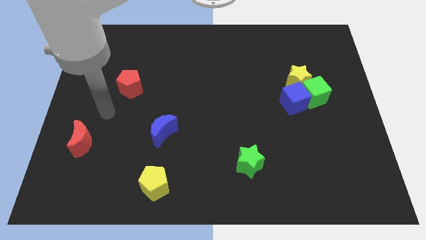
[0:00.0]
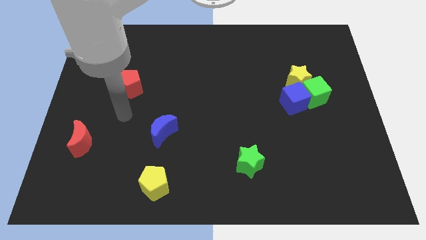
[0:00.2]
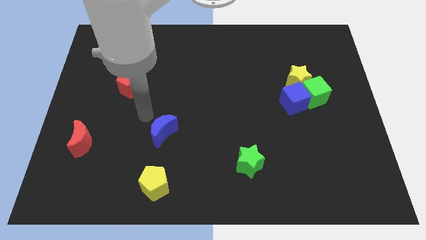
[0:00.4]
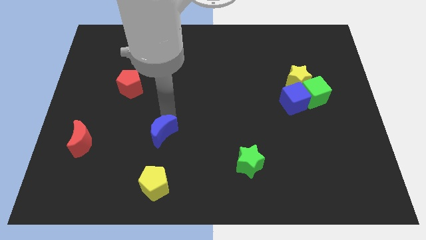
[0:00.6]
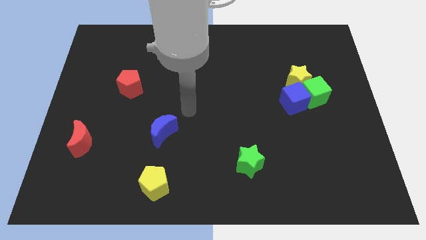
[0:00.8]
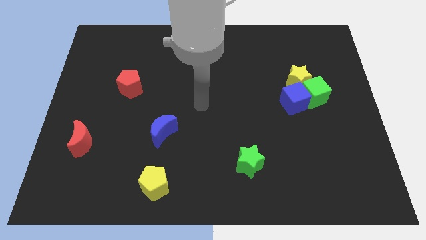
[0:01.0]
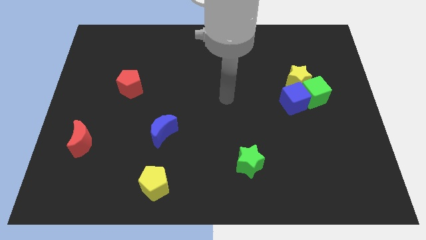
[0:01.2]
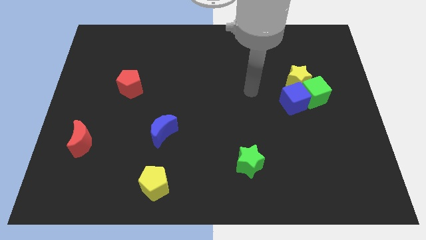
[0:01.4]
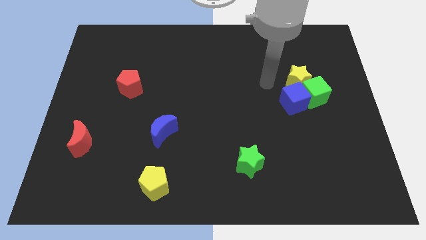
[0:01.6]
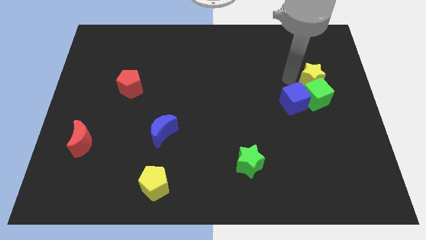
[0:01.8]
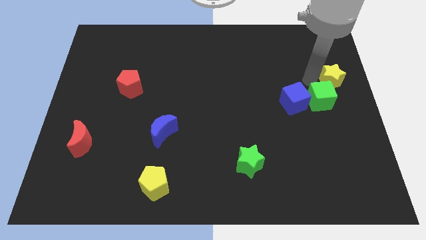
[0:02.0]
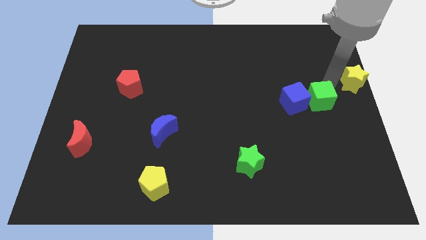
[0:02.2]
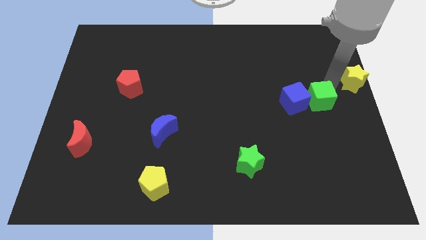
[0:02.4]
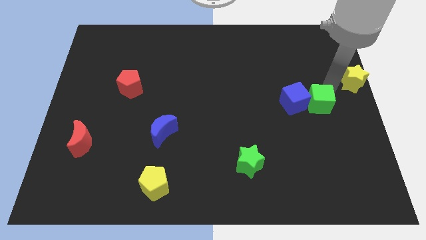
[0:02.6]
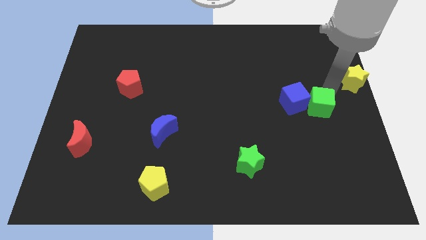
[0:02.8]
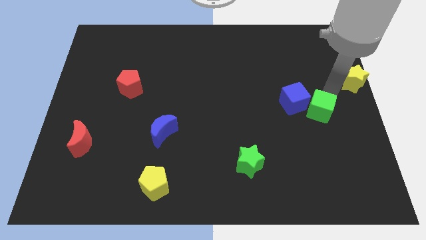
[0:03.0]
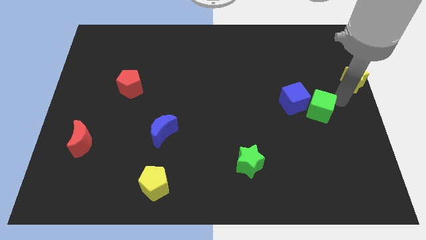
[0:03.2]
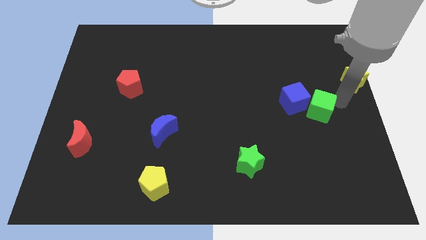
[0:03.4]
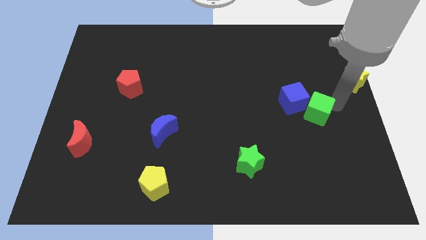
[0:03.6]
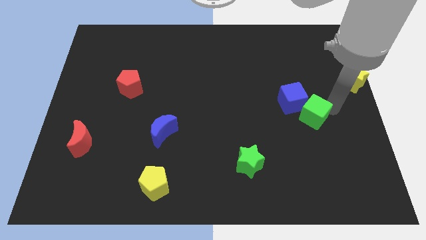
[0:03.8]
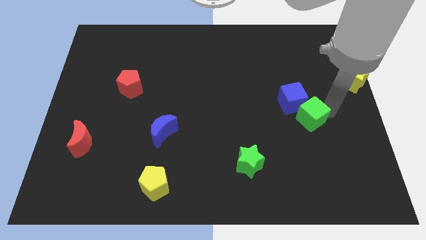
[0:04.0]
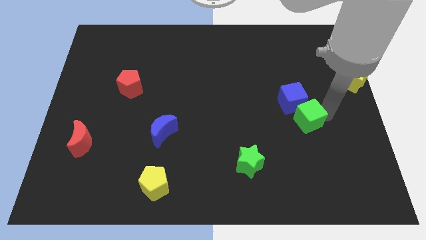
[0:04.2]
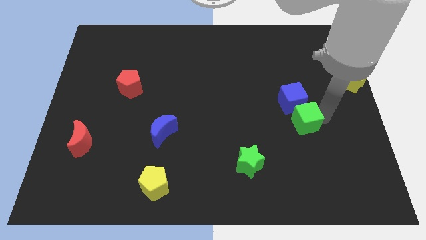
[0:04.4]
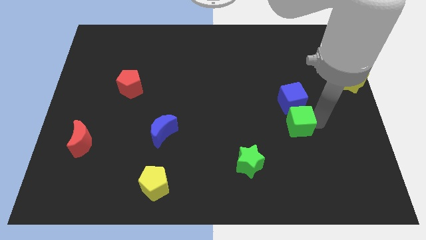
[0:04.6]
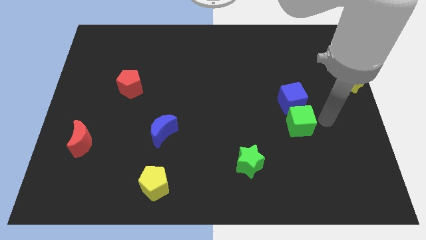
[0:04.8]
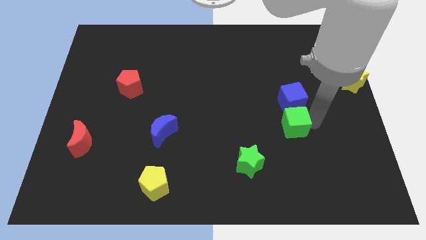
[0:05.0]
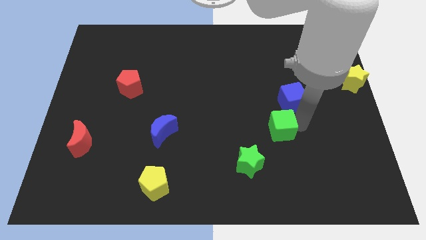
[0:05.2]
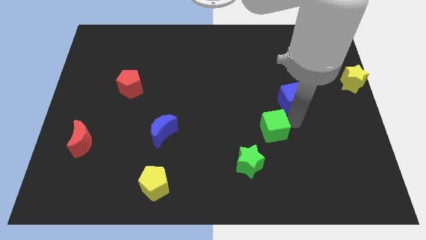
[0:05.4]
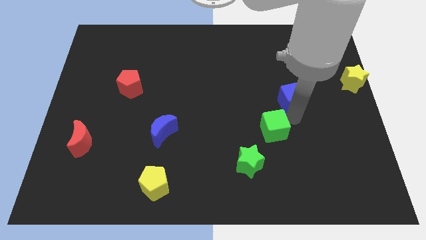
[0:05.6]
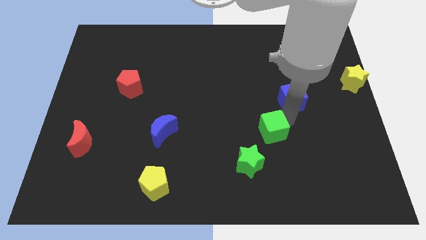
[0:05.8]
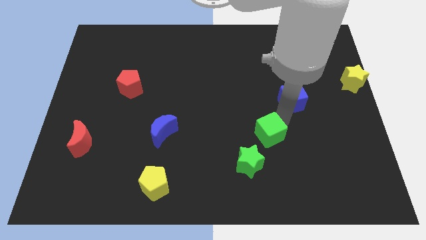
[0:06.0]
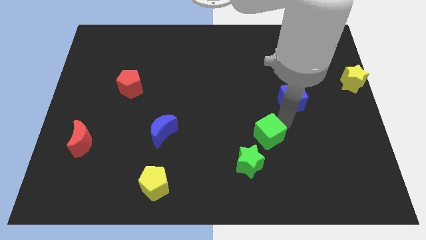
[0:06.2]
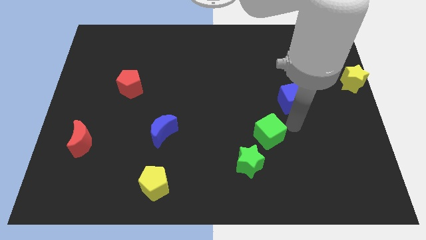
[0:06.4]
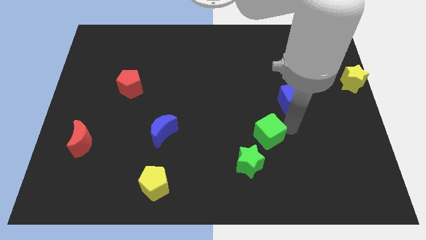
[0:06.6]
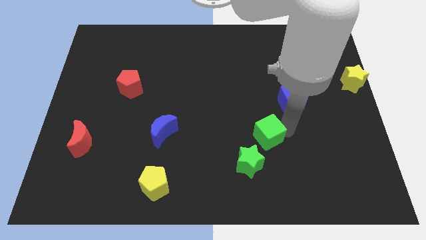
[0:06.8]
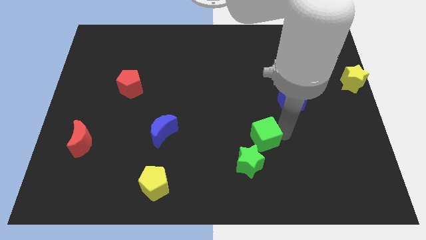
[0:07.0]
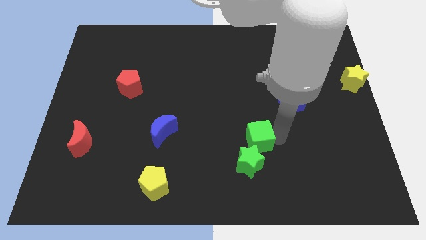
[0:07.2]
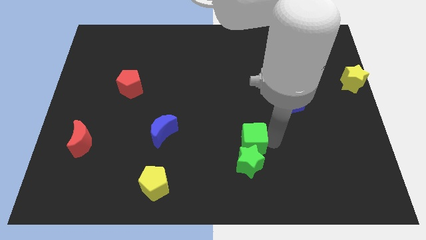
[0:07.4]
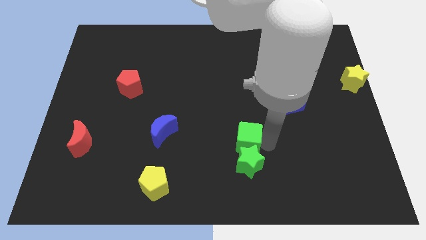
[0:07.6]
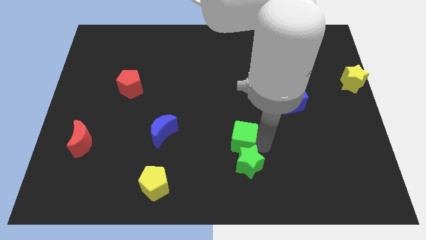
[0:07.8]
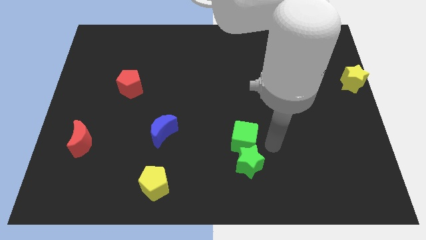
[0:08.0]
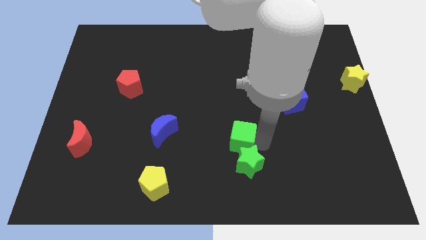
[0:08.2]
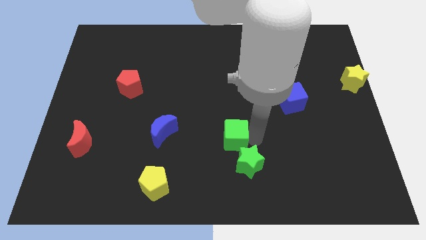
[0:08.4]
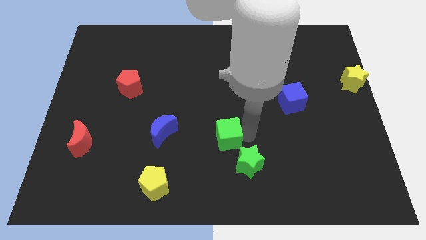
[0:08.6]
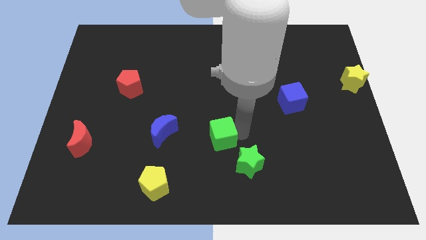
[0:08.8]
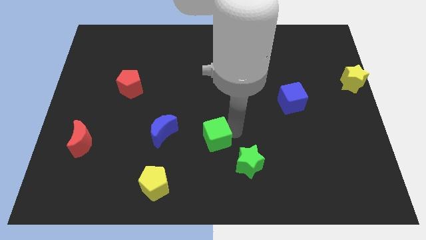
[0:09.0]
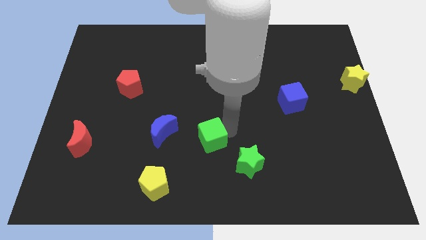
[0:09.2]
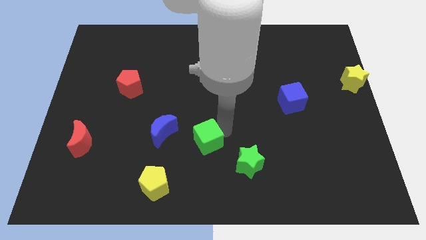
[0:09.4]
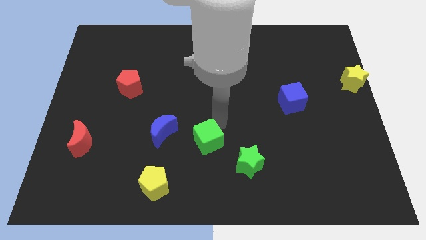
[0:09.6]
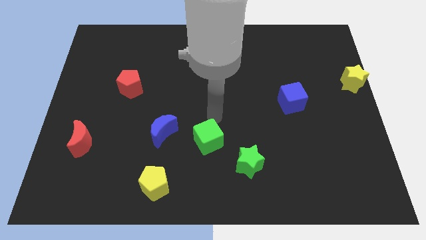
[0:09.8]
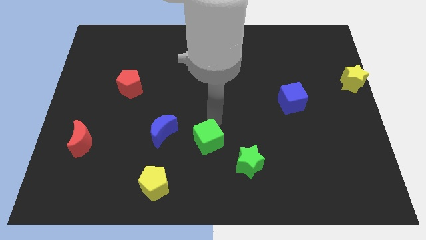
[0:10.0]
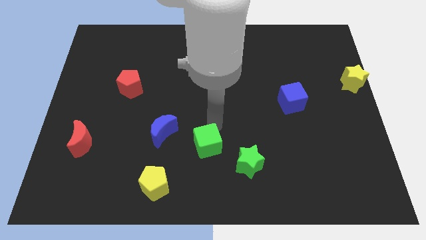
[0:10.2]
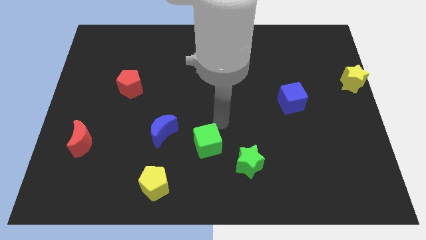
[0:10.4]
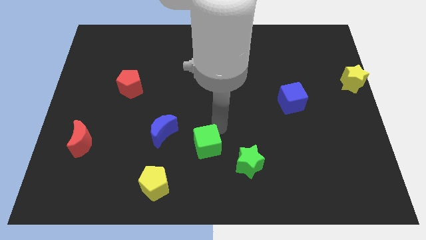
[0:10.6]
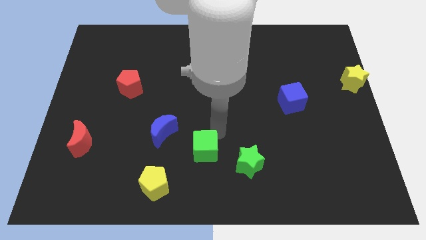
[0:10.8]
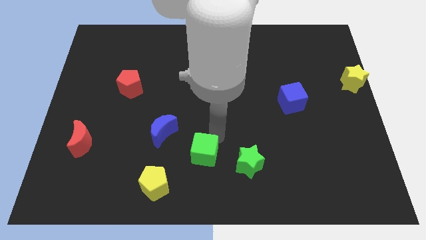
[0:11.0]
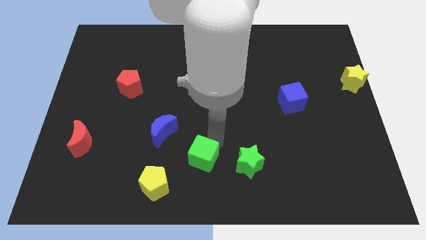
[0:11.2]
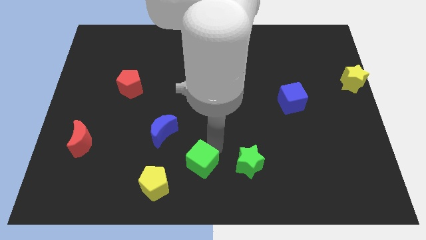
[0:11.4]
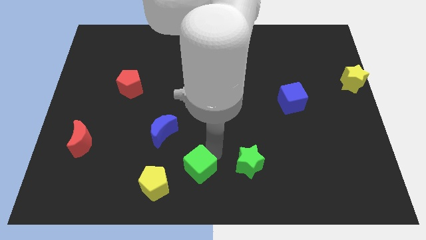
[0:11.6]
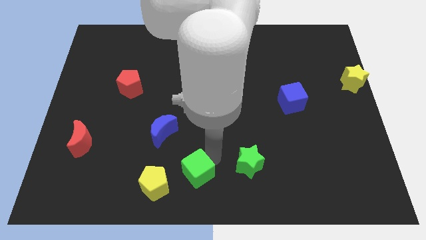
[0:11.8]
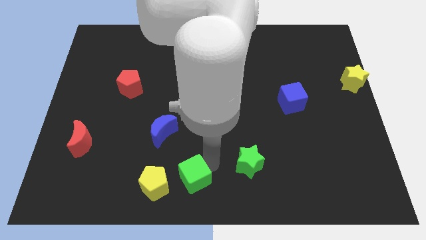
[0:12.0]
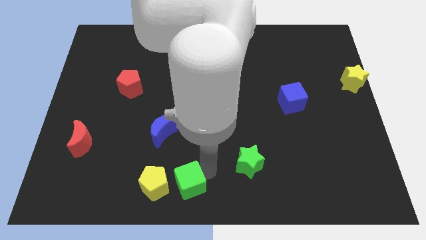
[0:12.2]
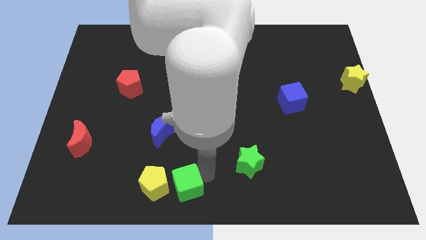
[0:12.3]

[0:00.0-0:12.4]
push the green cube to the yellow pentagon
